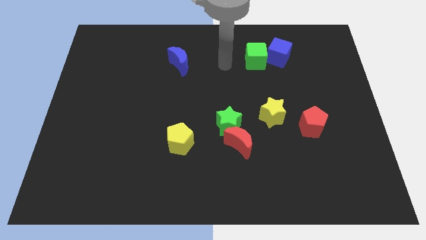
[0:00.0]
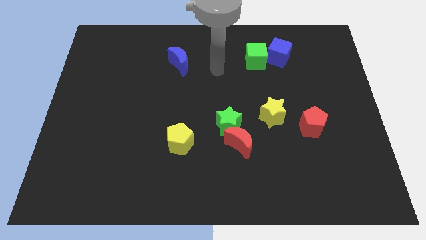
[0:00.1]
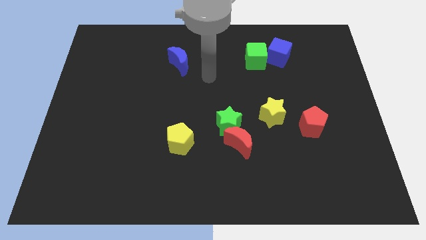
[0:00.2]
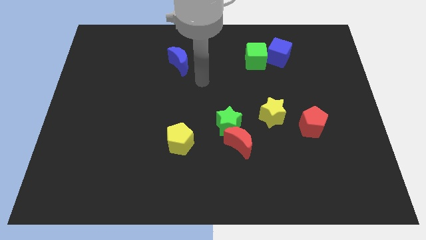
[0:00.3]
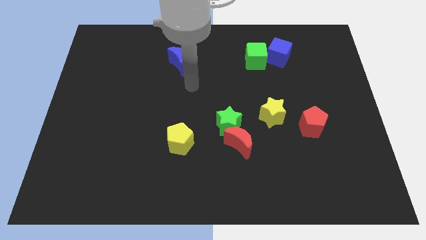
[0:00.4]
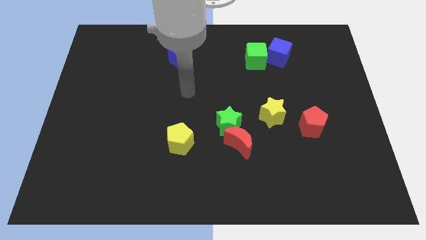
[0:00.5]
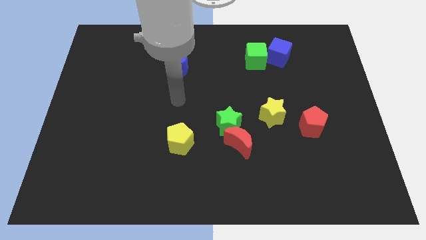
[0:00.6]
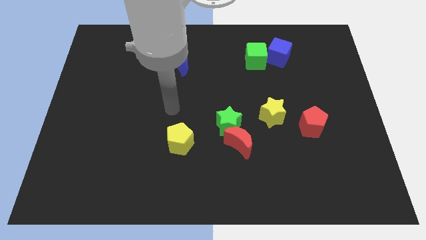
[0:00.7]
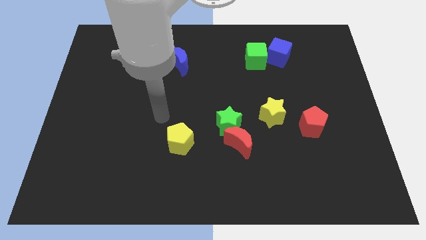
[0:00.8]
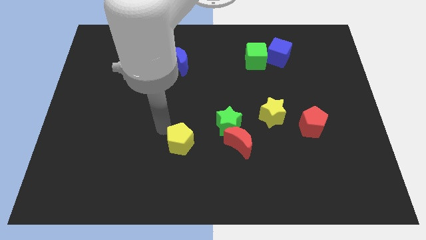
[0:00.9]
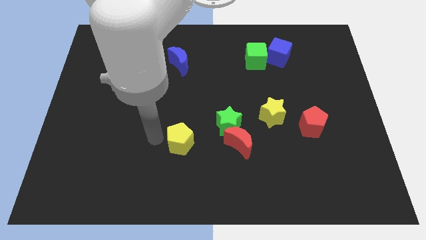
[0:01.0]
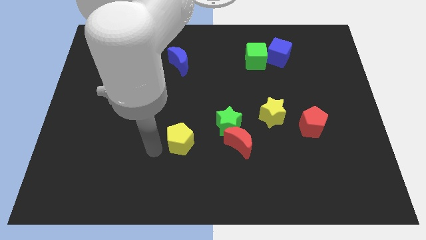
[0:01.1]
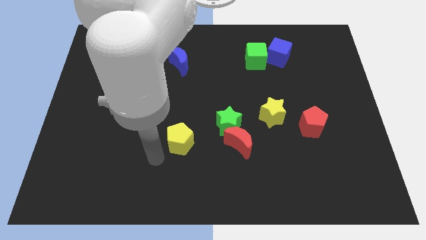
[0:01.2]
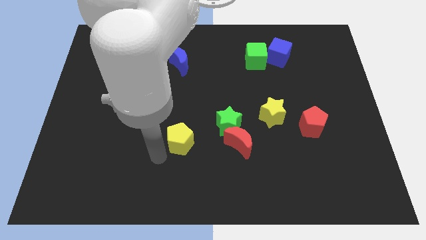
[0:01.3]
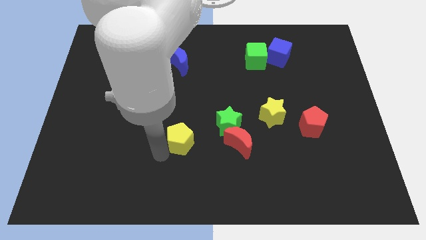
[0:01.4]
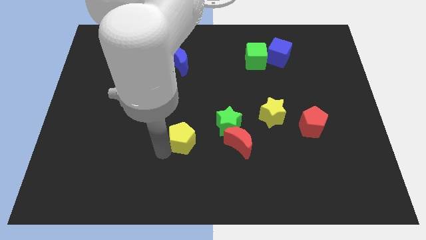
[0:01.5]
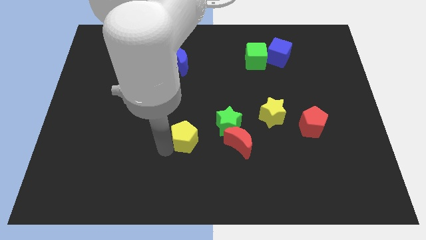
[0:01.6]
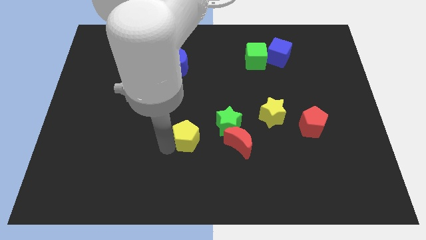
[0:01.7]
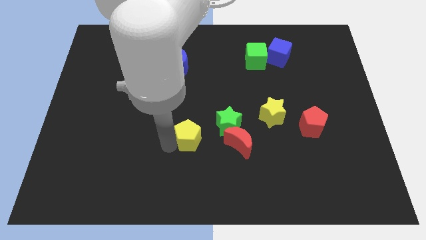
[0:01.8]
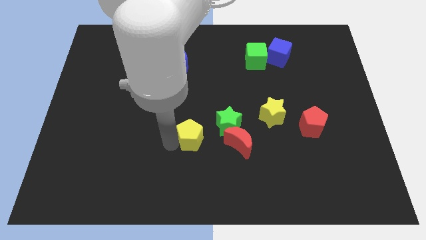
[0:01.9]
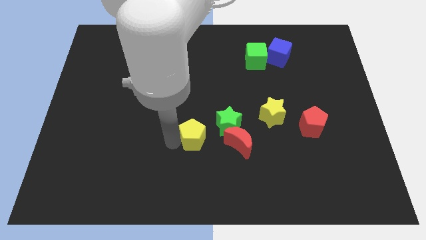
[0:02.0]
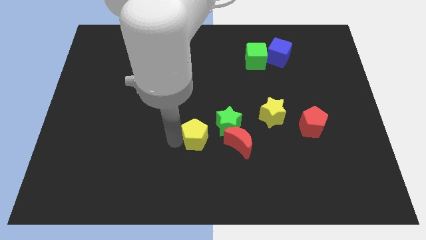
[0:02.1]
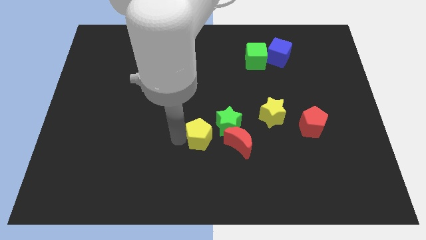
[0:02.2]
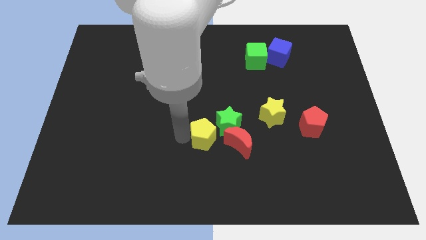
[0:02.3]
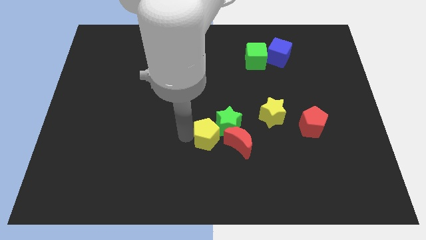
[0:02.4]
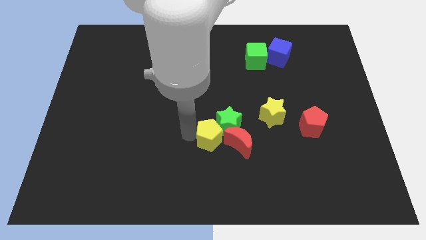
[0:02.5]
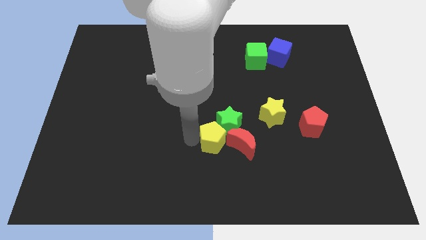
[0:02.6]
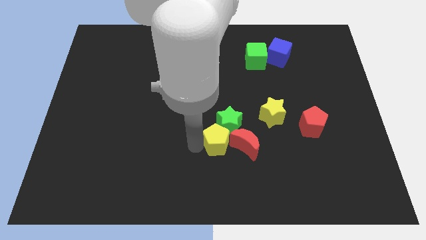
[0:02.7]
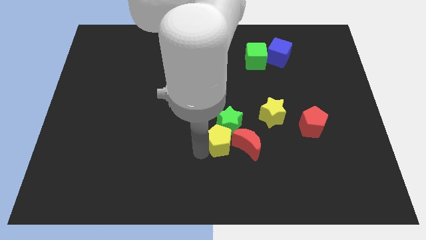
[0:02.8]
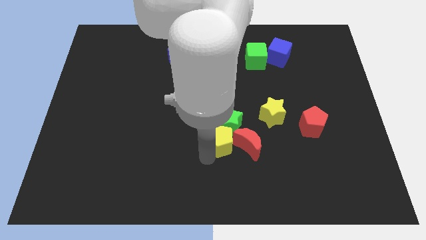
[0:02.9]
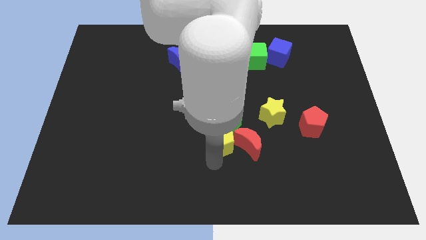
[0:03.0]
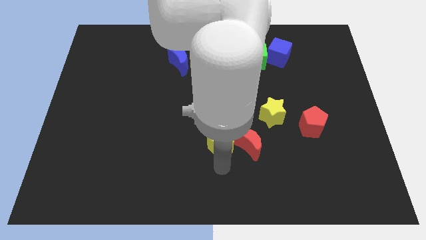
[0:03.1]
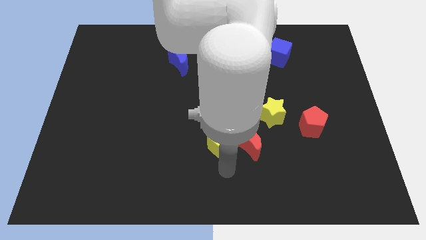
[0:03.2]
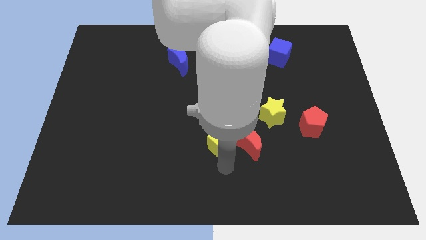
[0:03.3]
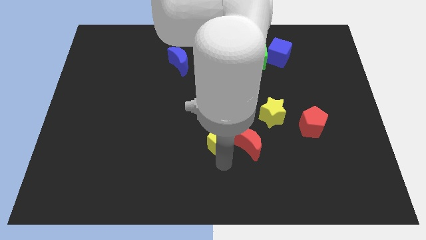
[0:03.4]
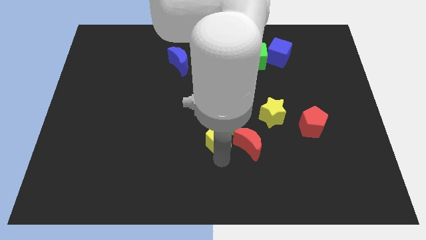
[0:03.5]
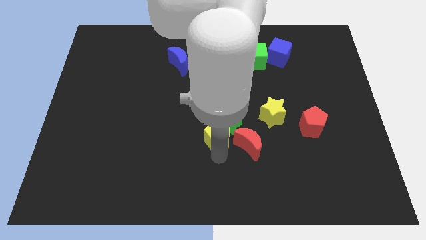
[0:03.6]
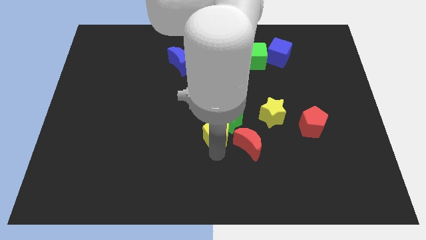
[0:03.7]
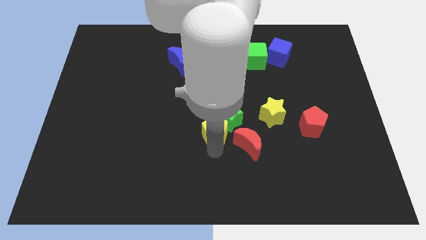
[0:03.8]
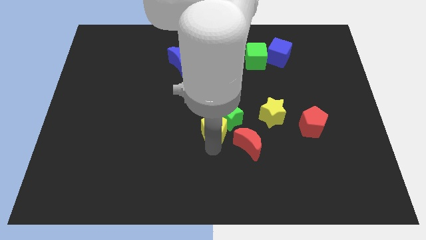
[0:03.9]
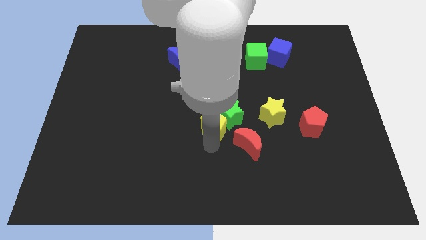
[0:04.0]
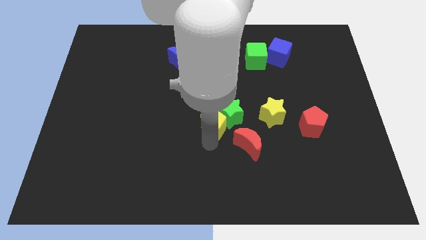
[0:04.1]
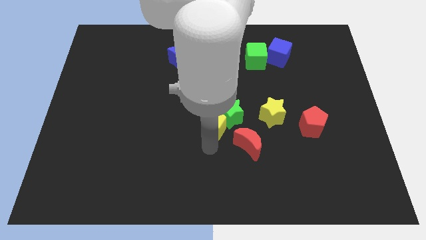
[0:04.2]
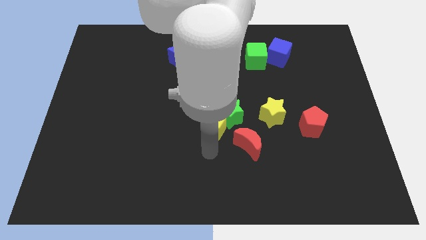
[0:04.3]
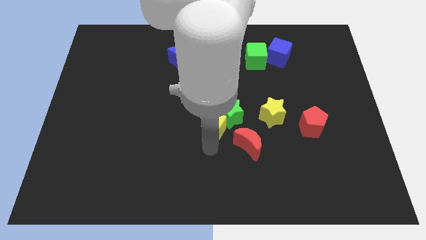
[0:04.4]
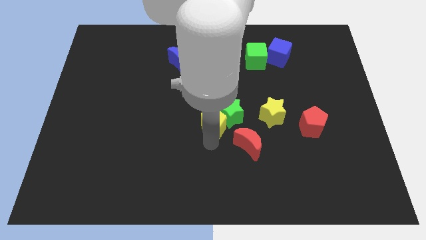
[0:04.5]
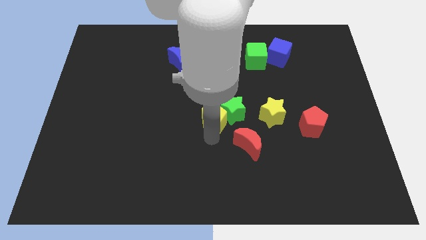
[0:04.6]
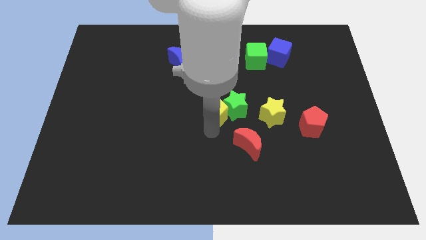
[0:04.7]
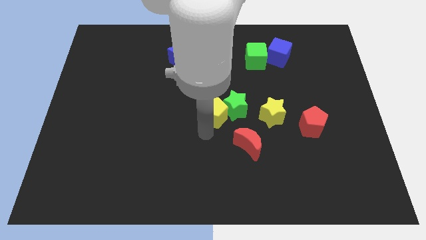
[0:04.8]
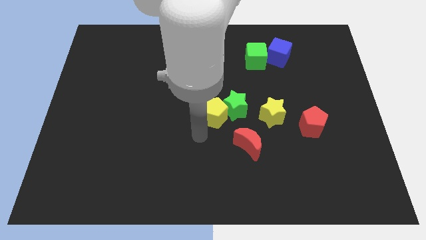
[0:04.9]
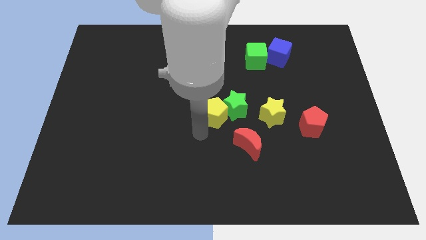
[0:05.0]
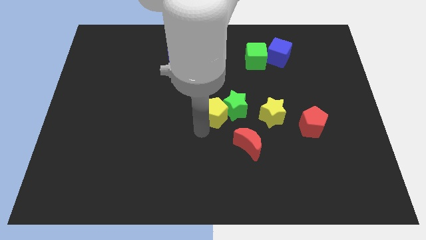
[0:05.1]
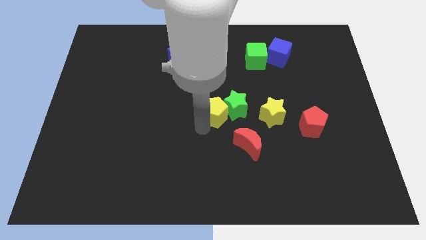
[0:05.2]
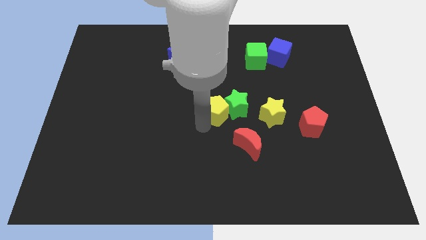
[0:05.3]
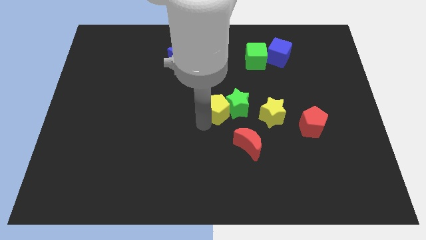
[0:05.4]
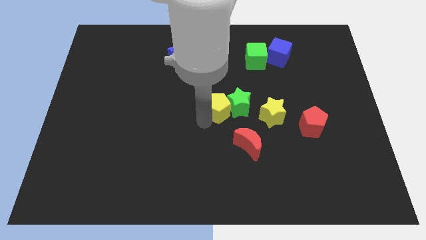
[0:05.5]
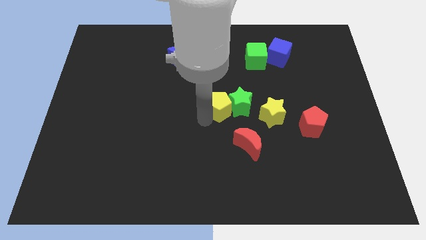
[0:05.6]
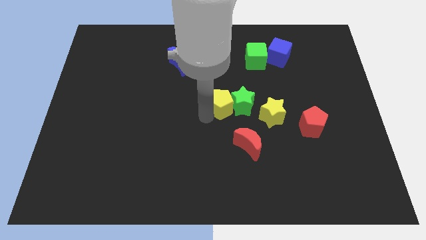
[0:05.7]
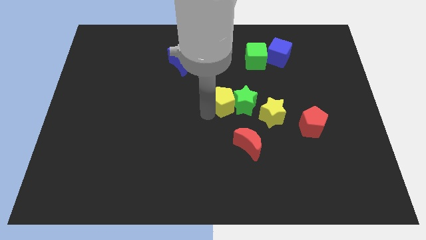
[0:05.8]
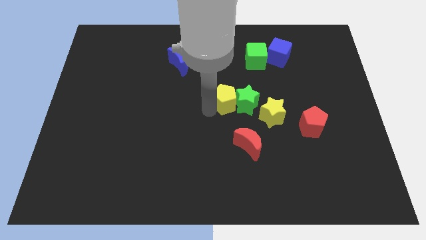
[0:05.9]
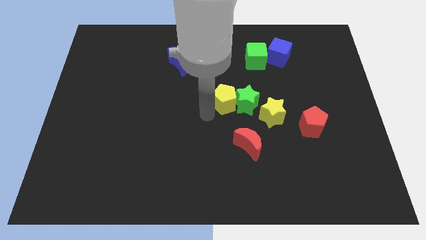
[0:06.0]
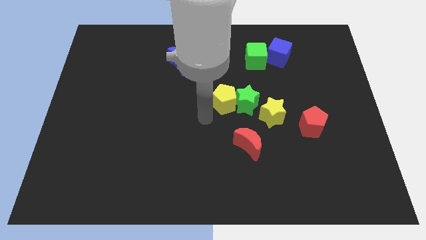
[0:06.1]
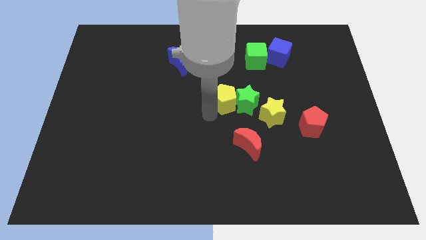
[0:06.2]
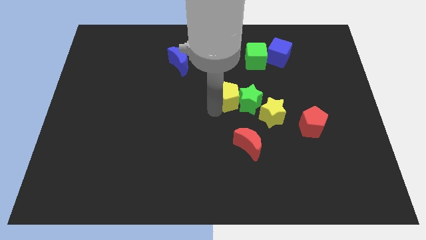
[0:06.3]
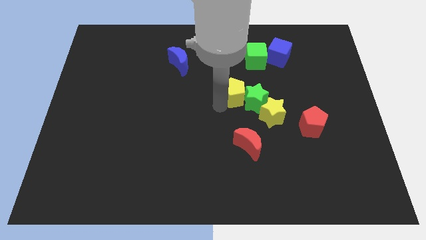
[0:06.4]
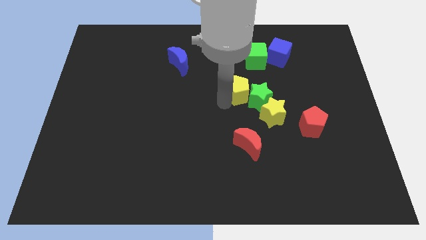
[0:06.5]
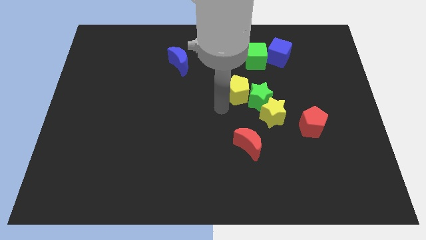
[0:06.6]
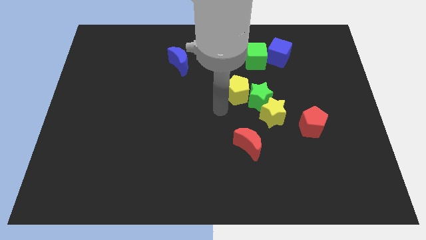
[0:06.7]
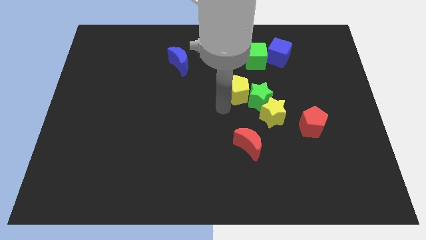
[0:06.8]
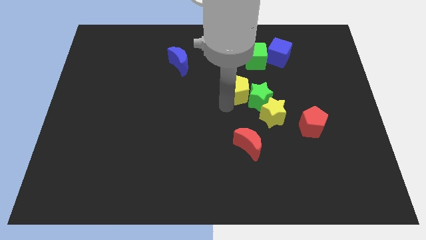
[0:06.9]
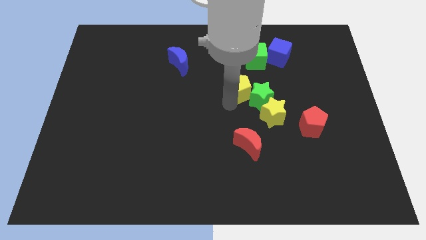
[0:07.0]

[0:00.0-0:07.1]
push the yellow pentagon upwards and to the right

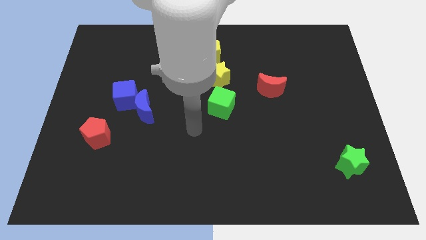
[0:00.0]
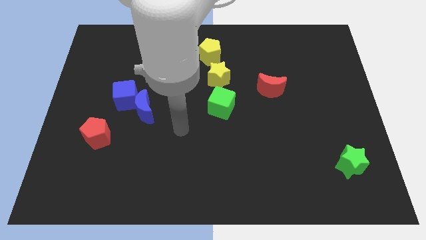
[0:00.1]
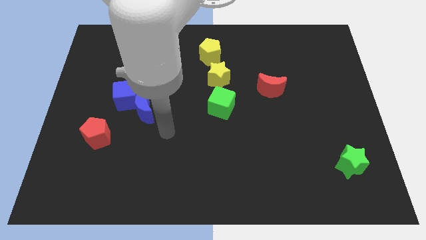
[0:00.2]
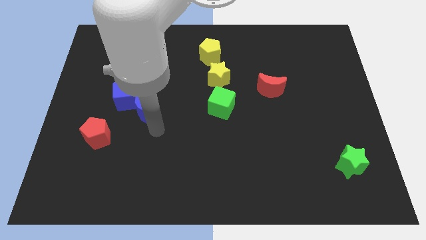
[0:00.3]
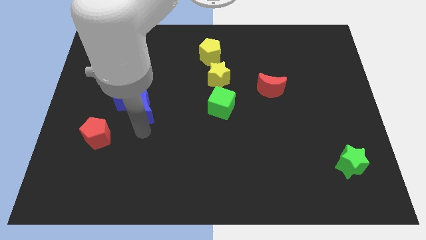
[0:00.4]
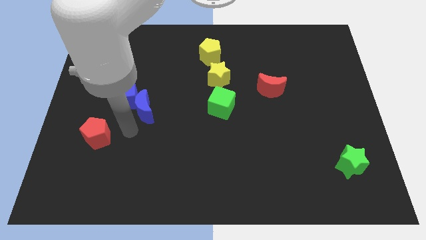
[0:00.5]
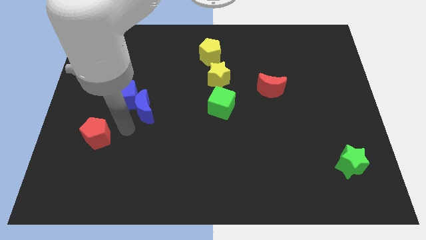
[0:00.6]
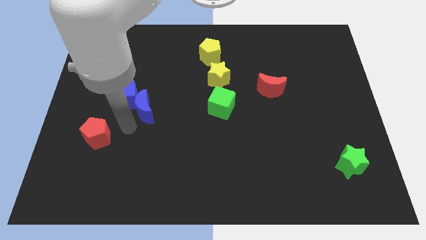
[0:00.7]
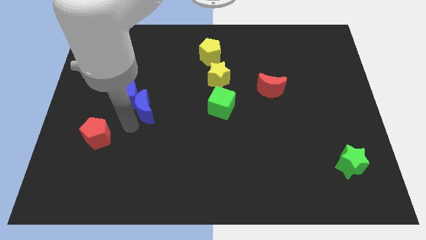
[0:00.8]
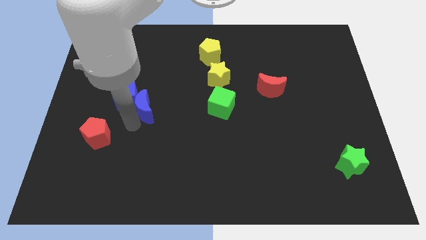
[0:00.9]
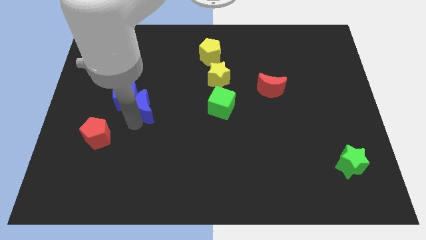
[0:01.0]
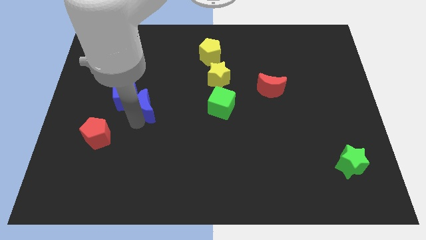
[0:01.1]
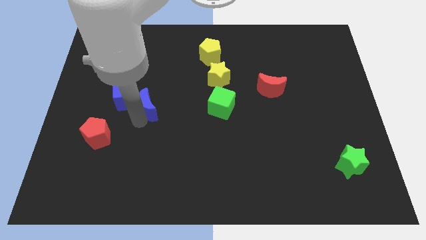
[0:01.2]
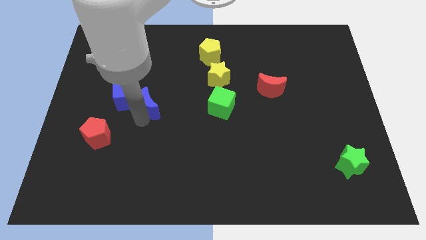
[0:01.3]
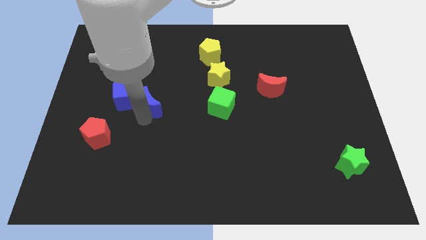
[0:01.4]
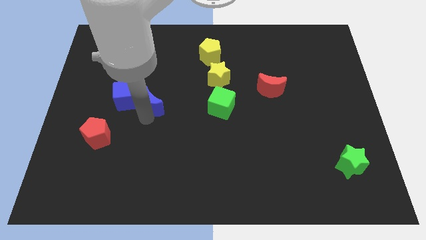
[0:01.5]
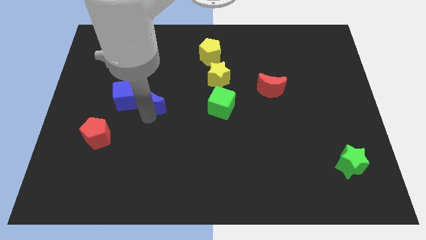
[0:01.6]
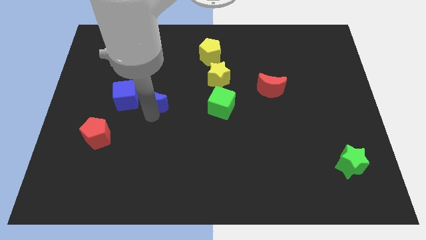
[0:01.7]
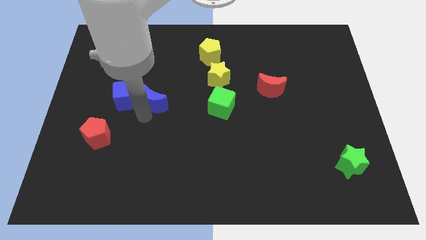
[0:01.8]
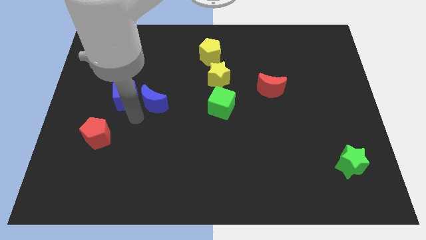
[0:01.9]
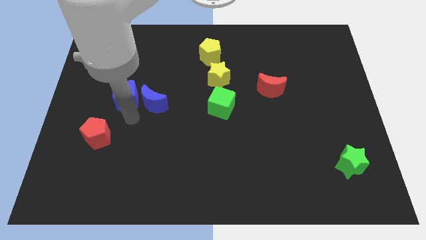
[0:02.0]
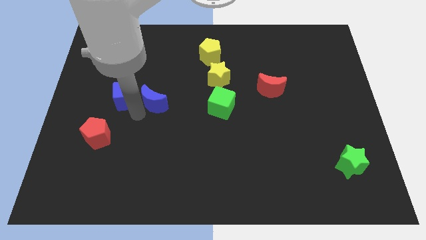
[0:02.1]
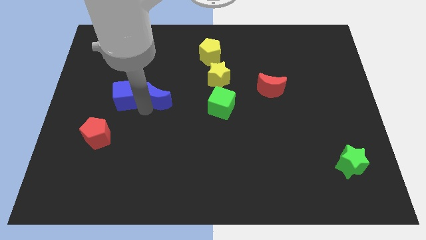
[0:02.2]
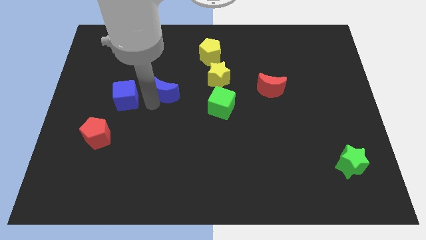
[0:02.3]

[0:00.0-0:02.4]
slightly move the blue moon up and then to the right
